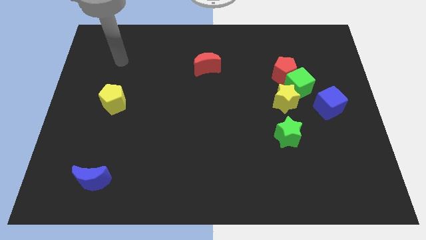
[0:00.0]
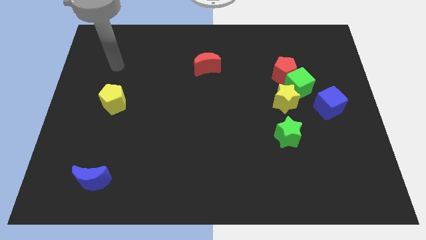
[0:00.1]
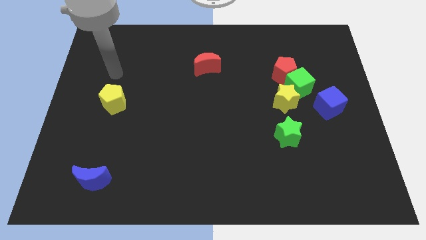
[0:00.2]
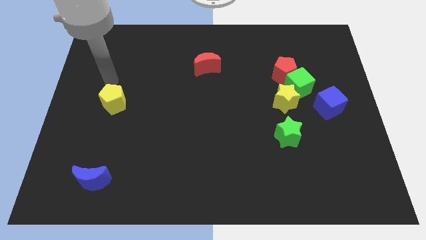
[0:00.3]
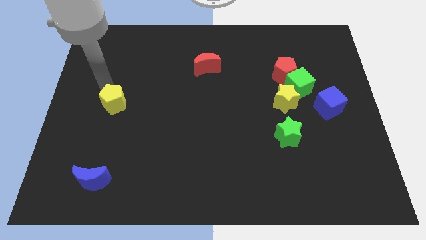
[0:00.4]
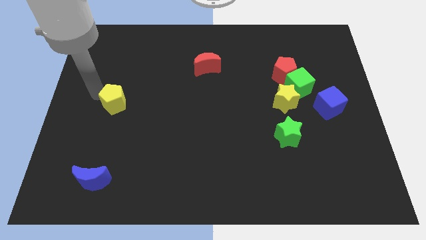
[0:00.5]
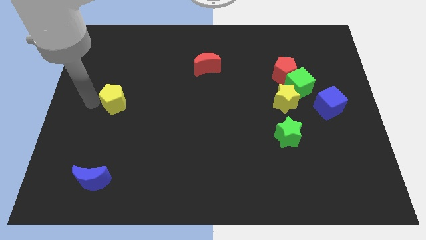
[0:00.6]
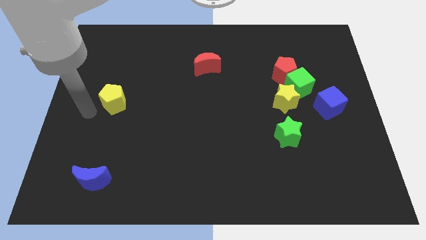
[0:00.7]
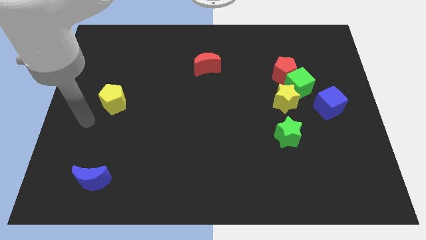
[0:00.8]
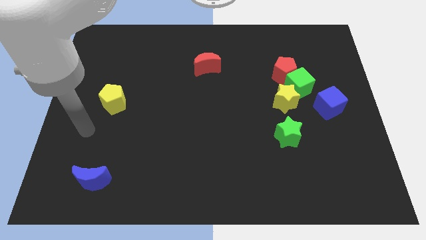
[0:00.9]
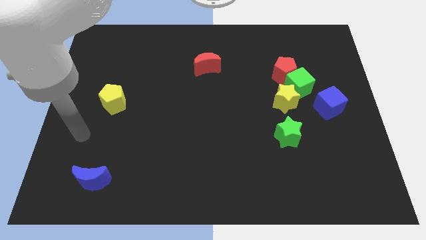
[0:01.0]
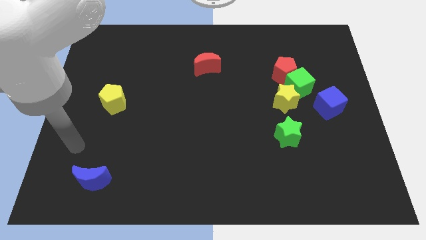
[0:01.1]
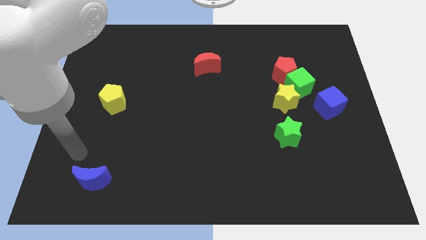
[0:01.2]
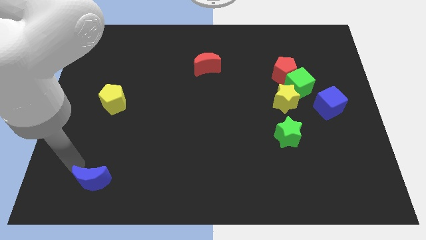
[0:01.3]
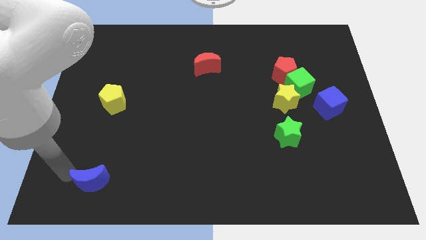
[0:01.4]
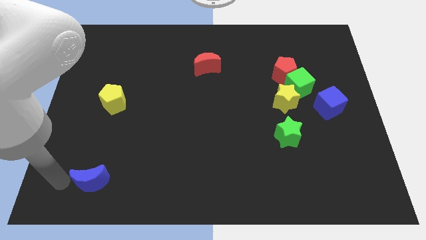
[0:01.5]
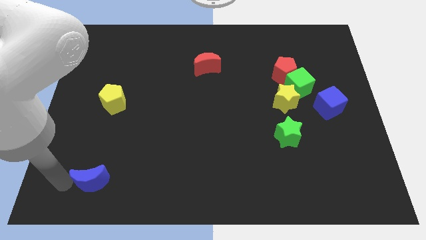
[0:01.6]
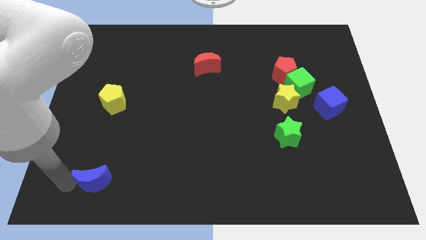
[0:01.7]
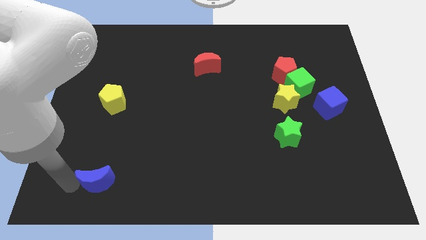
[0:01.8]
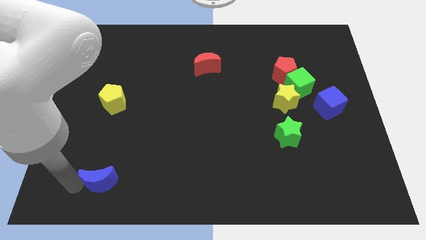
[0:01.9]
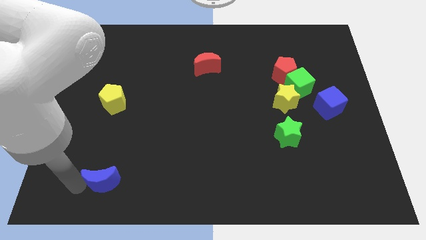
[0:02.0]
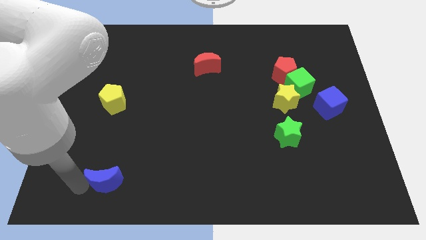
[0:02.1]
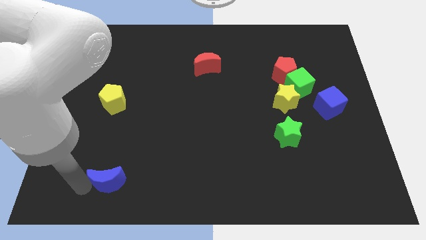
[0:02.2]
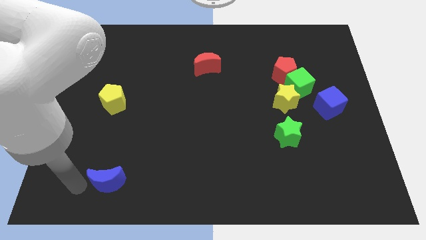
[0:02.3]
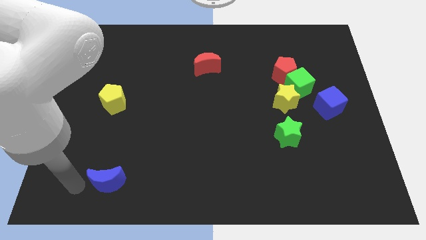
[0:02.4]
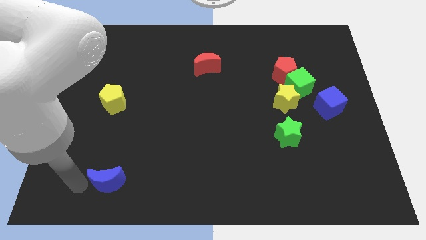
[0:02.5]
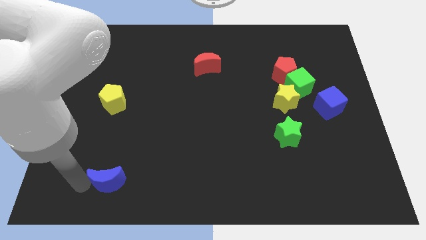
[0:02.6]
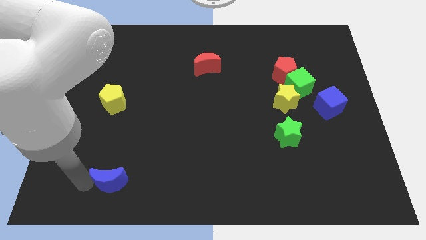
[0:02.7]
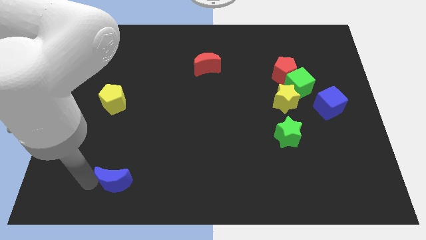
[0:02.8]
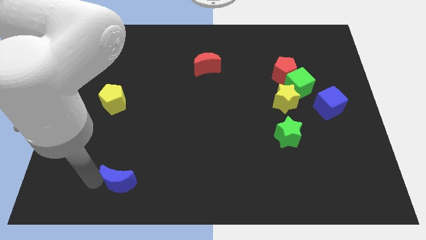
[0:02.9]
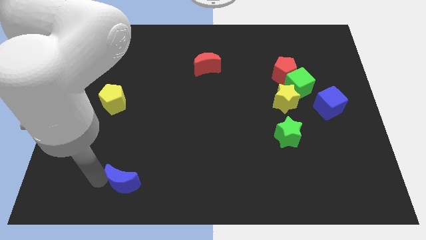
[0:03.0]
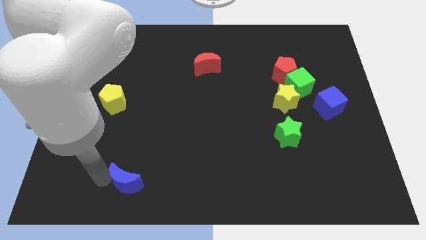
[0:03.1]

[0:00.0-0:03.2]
push the blue moon right a little

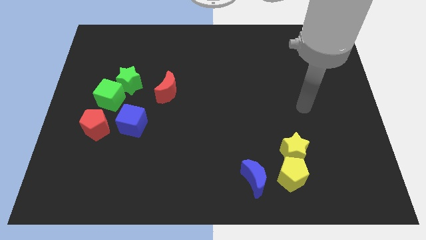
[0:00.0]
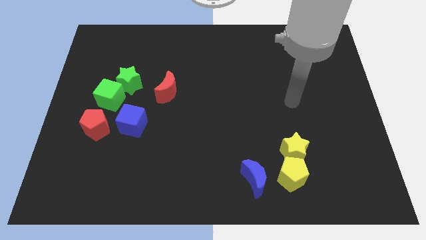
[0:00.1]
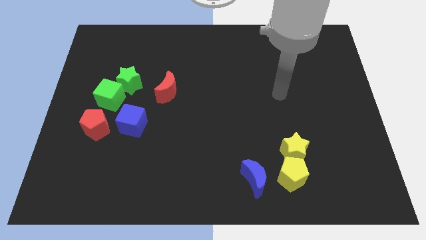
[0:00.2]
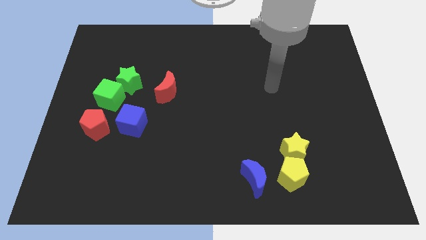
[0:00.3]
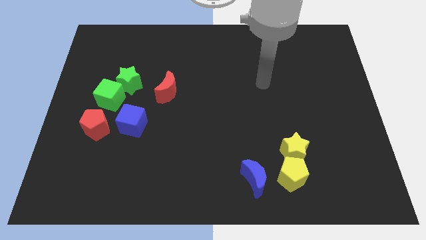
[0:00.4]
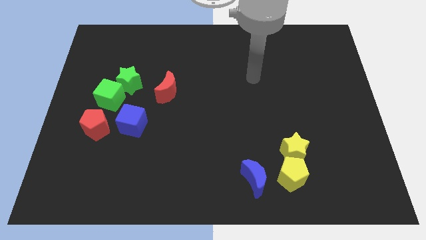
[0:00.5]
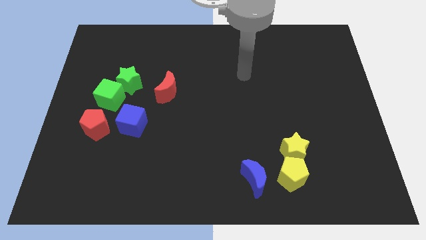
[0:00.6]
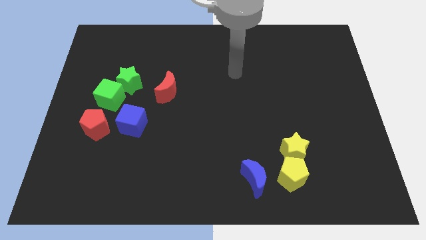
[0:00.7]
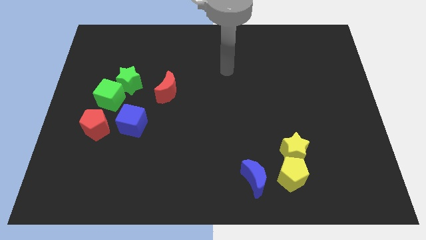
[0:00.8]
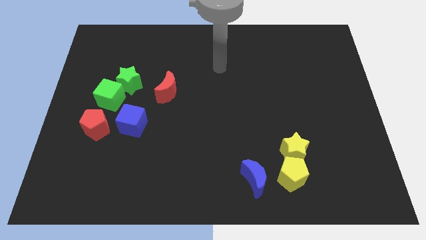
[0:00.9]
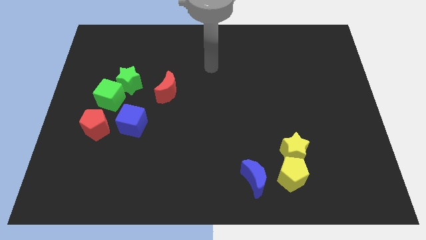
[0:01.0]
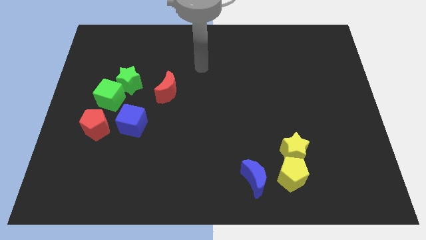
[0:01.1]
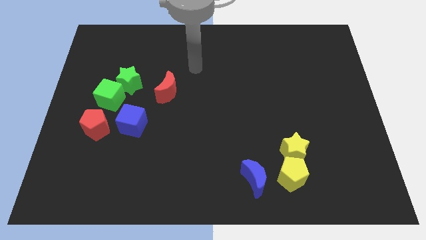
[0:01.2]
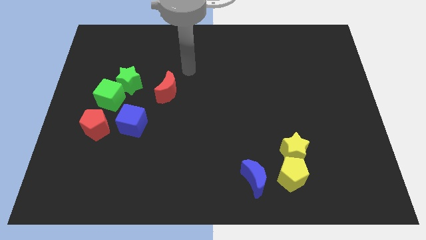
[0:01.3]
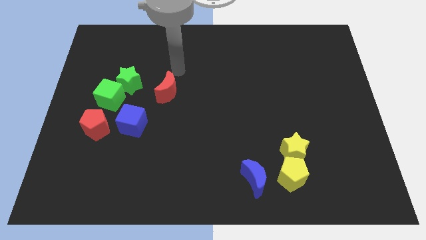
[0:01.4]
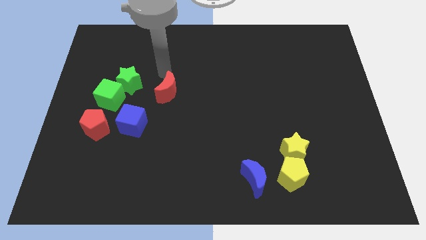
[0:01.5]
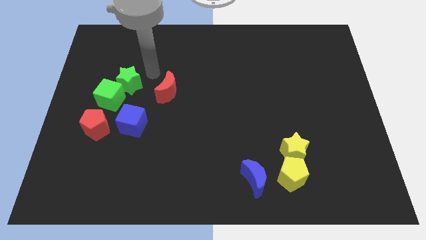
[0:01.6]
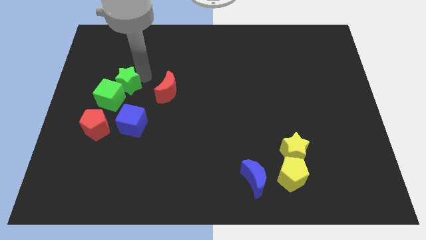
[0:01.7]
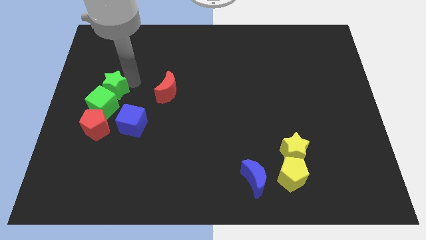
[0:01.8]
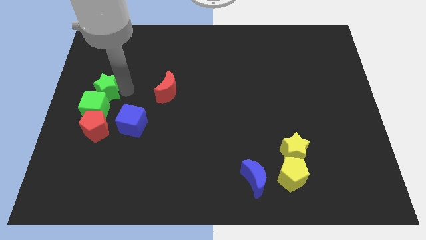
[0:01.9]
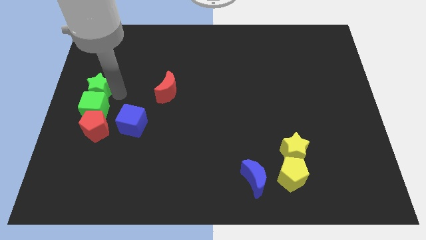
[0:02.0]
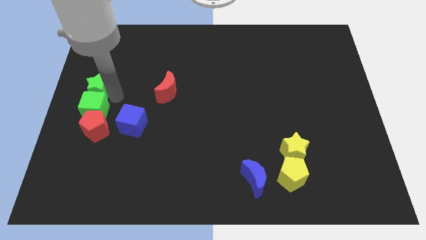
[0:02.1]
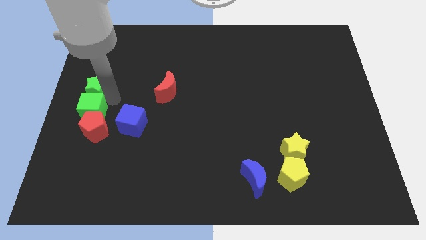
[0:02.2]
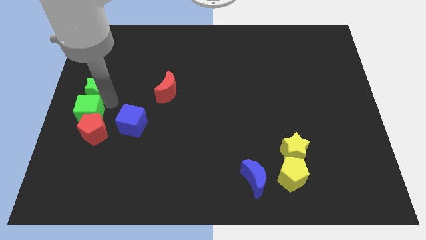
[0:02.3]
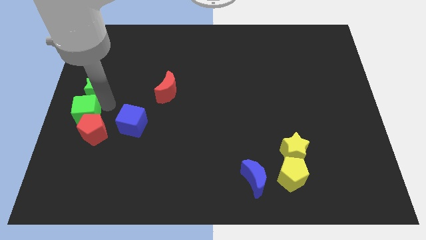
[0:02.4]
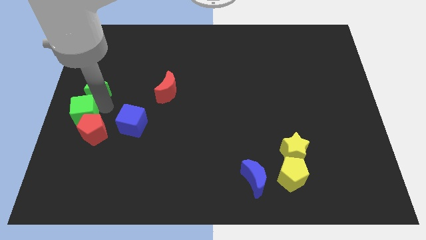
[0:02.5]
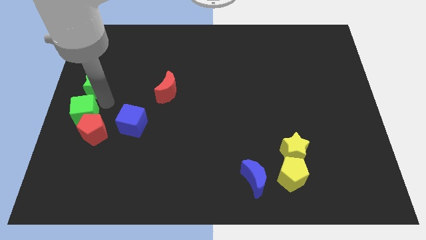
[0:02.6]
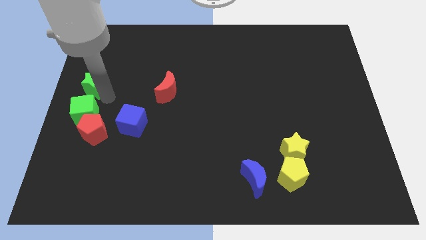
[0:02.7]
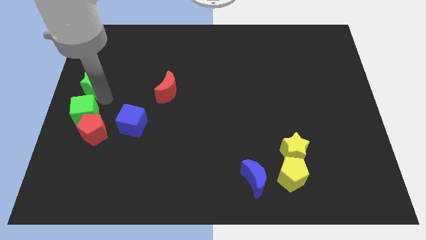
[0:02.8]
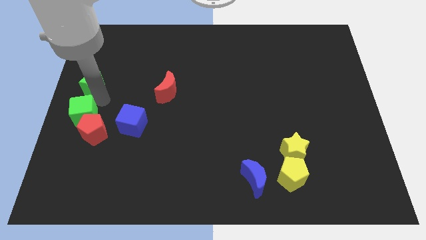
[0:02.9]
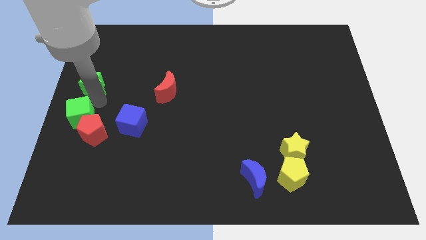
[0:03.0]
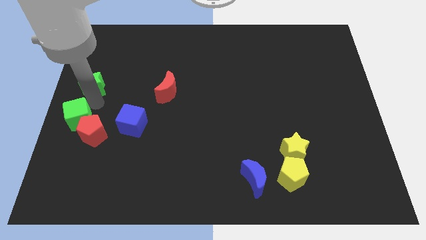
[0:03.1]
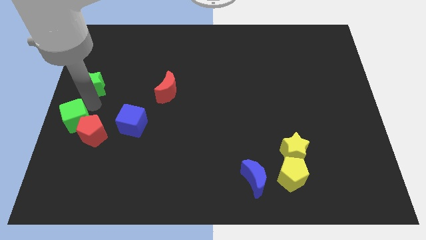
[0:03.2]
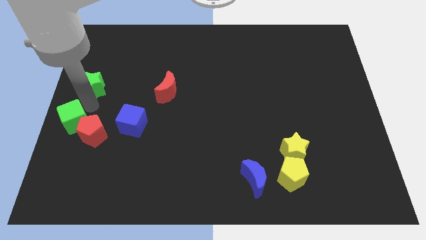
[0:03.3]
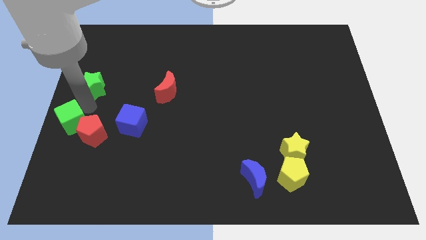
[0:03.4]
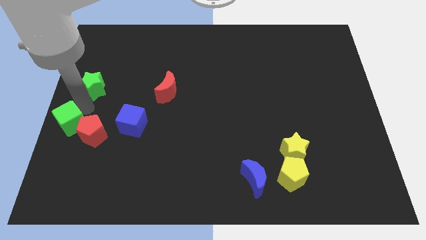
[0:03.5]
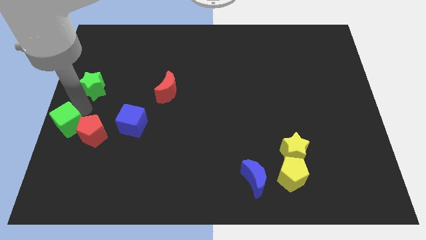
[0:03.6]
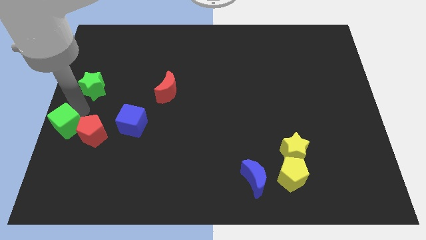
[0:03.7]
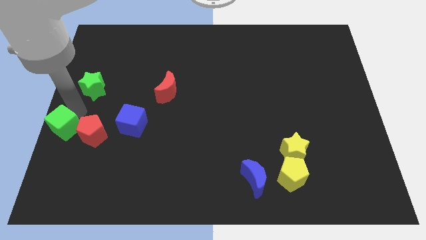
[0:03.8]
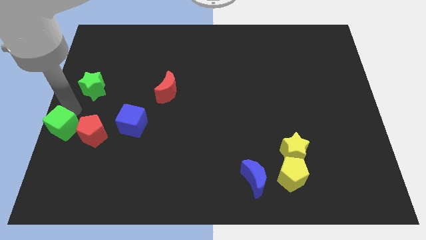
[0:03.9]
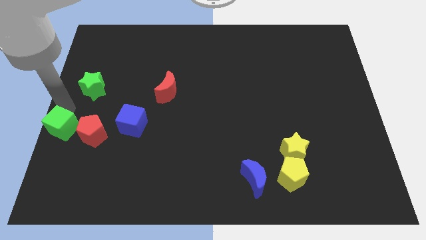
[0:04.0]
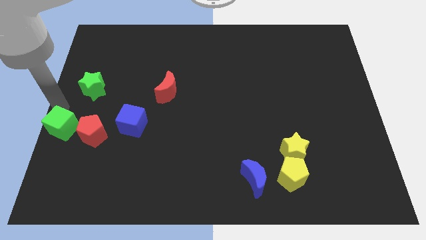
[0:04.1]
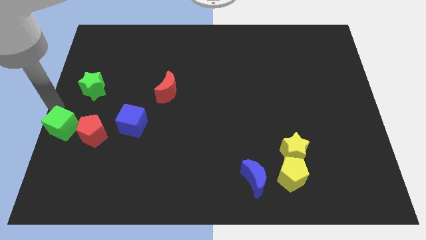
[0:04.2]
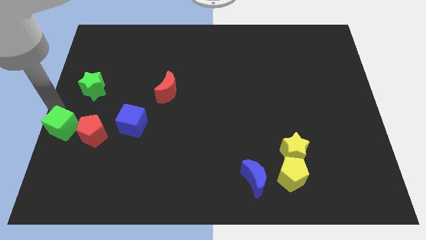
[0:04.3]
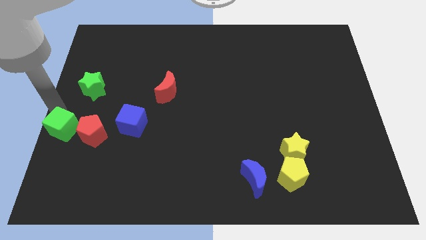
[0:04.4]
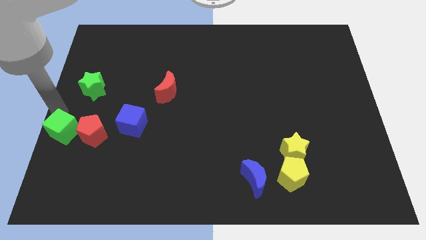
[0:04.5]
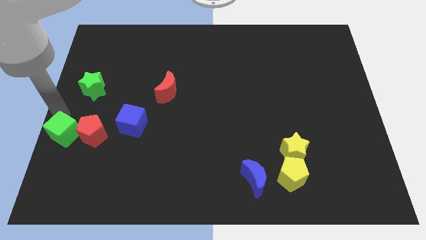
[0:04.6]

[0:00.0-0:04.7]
slide the green cube downwards a little bit

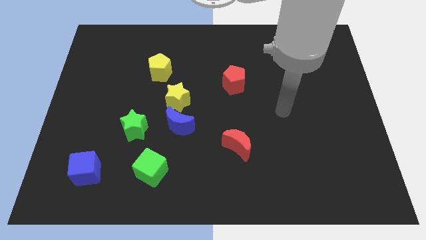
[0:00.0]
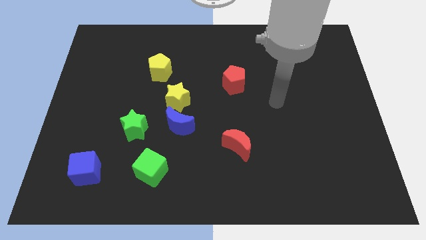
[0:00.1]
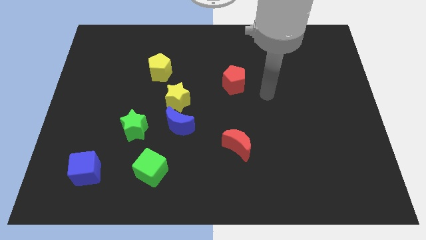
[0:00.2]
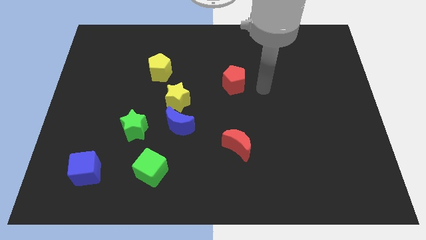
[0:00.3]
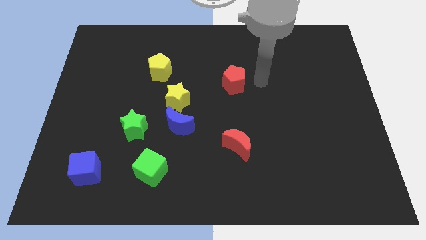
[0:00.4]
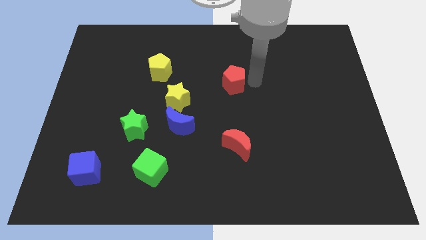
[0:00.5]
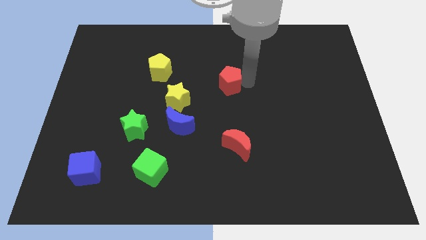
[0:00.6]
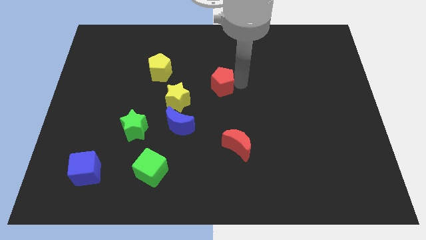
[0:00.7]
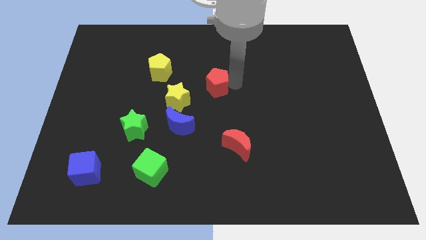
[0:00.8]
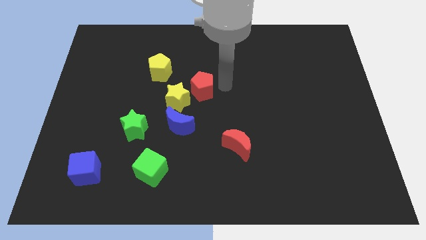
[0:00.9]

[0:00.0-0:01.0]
slide the red pentagon a little left
